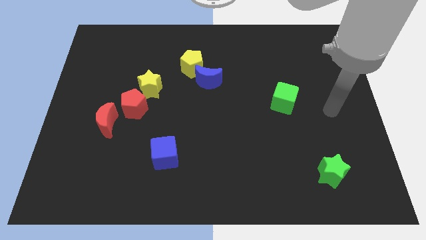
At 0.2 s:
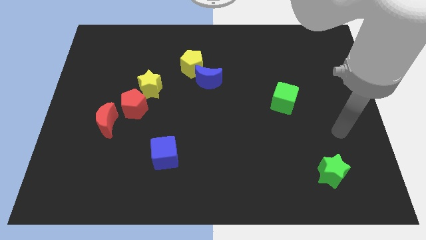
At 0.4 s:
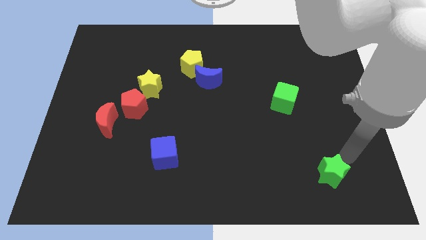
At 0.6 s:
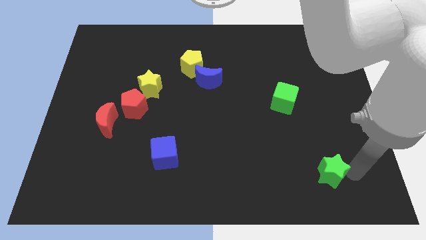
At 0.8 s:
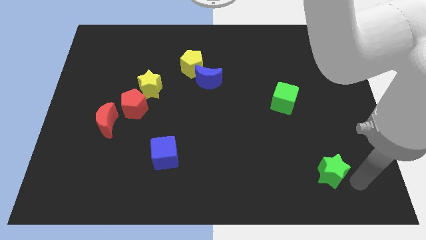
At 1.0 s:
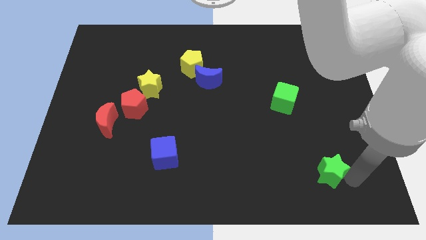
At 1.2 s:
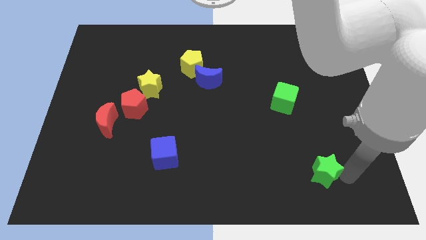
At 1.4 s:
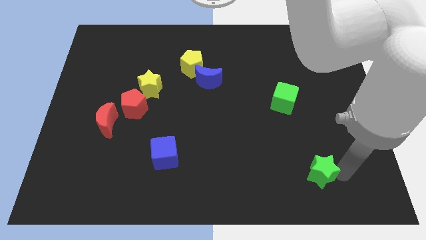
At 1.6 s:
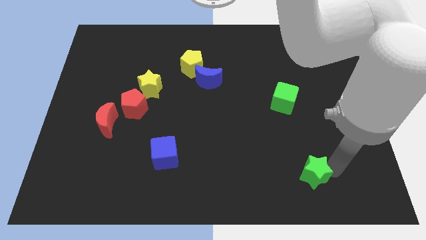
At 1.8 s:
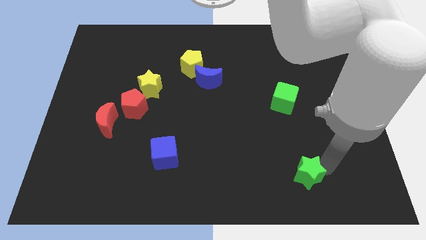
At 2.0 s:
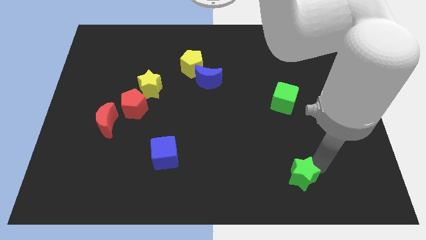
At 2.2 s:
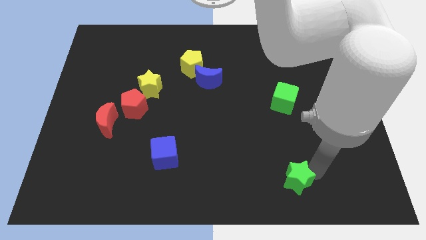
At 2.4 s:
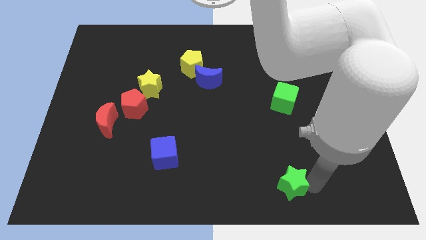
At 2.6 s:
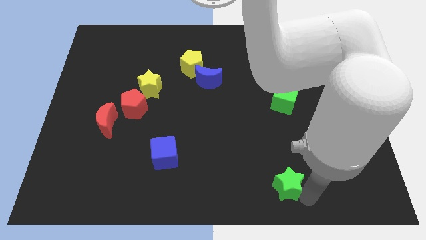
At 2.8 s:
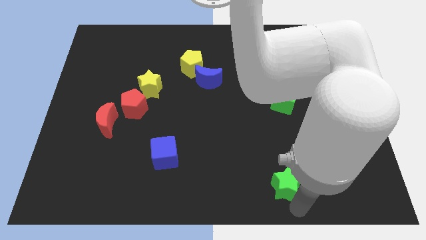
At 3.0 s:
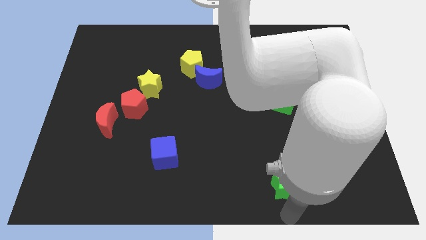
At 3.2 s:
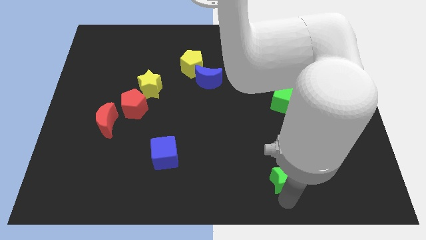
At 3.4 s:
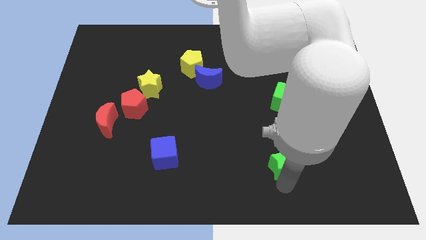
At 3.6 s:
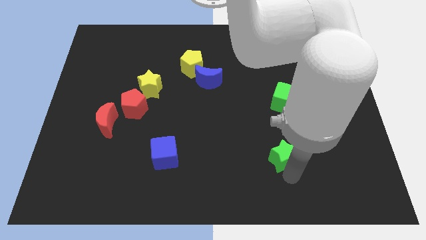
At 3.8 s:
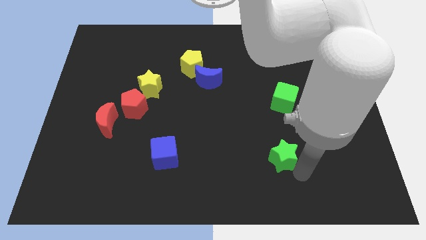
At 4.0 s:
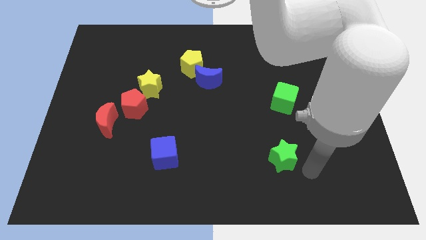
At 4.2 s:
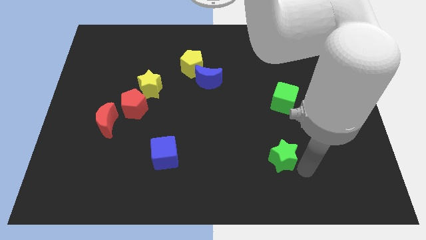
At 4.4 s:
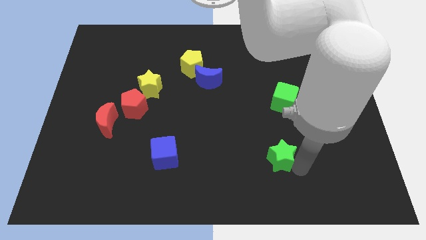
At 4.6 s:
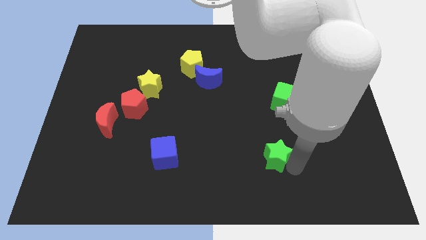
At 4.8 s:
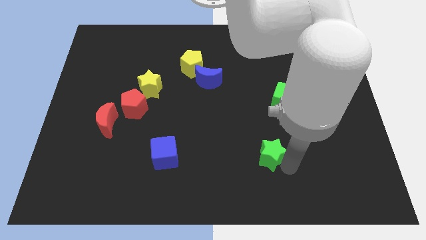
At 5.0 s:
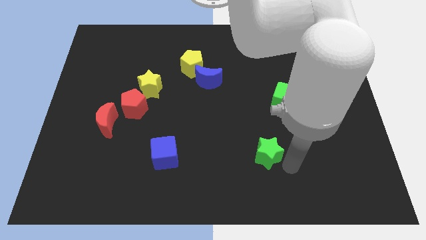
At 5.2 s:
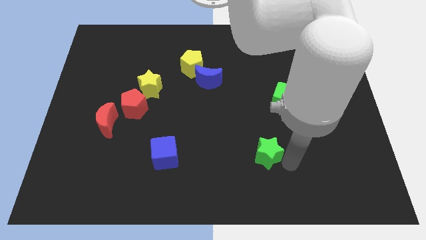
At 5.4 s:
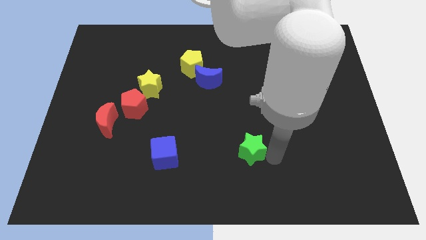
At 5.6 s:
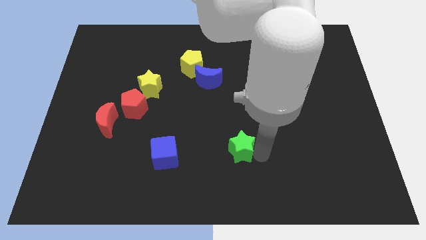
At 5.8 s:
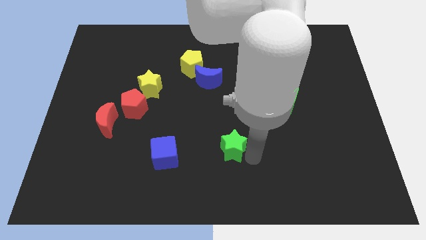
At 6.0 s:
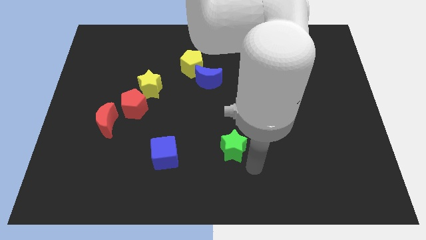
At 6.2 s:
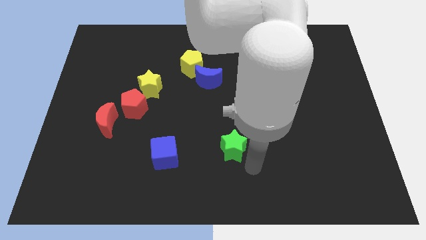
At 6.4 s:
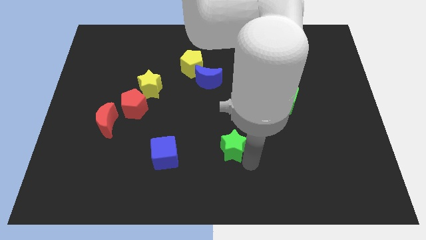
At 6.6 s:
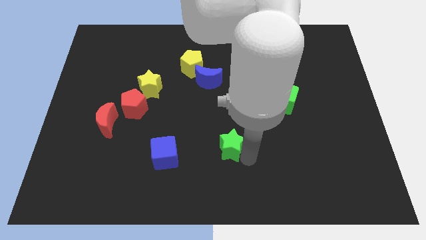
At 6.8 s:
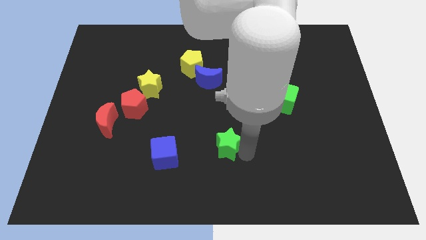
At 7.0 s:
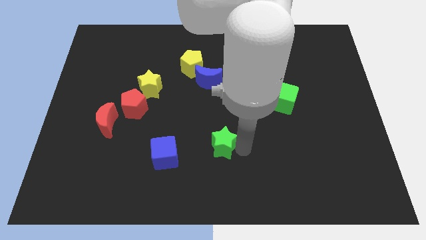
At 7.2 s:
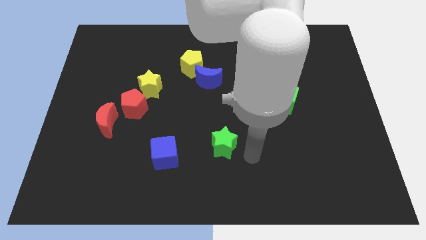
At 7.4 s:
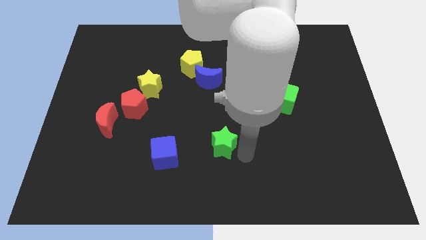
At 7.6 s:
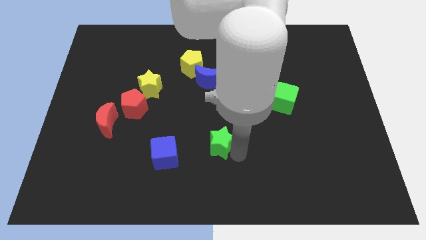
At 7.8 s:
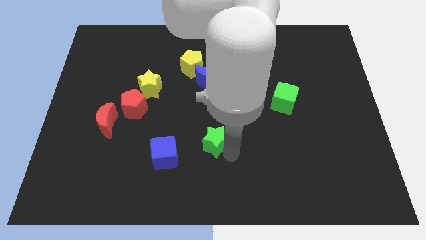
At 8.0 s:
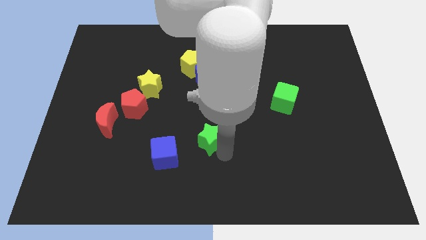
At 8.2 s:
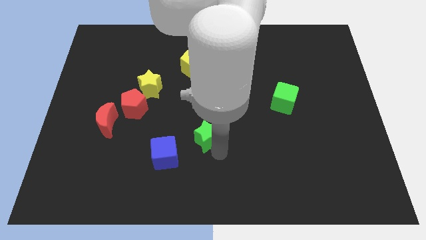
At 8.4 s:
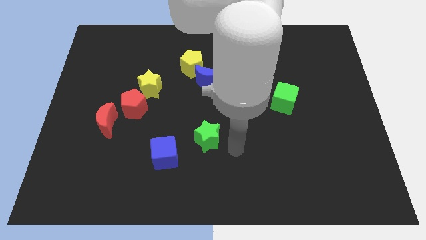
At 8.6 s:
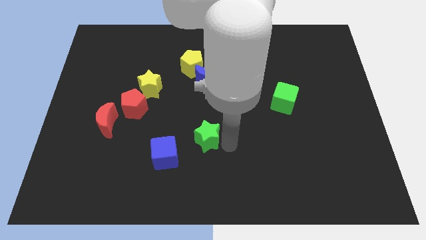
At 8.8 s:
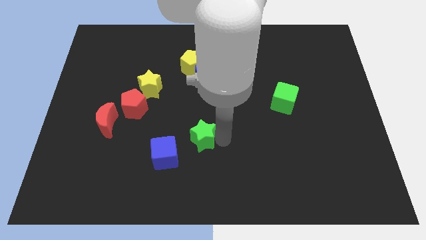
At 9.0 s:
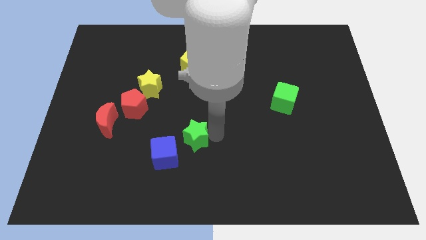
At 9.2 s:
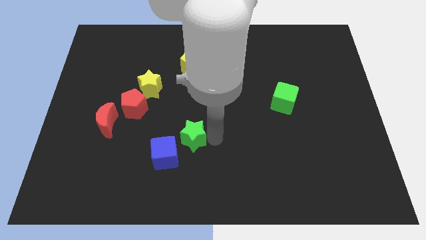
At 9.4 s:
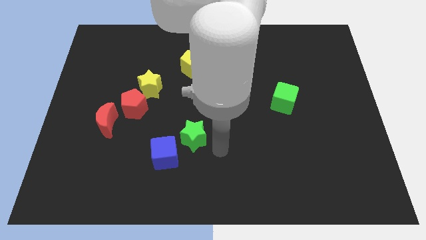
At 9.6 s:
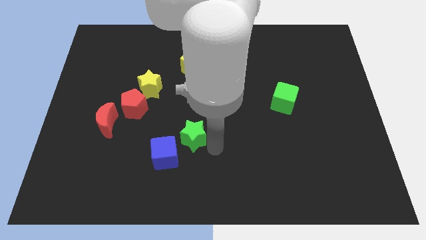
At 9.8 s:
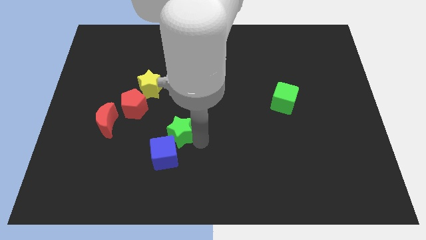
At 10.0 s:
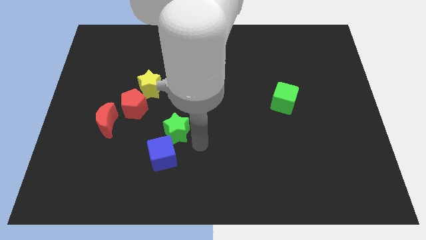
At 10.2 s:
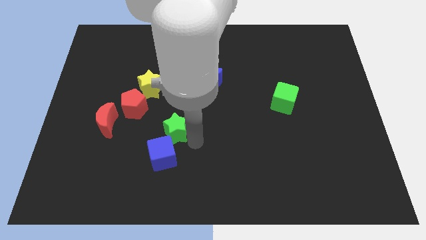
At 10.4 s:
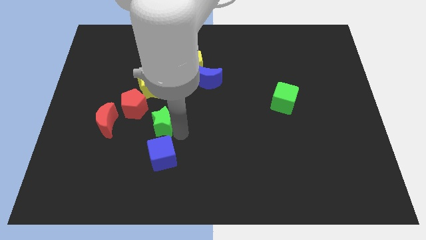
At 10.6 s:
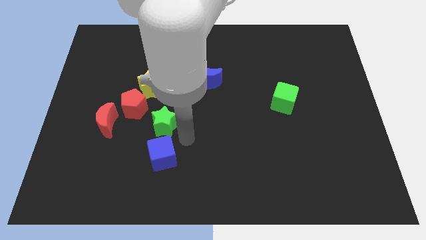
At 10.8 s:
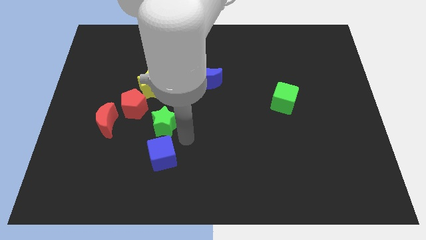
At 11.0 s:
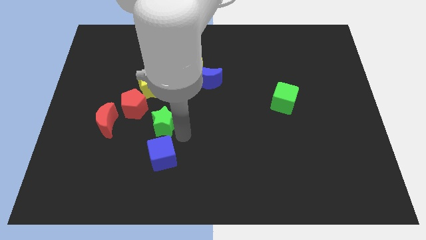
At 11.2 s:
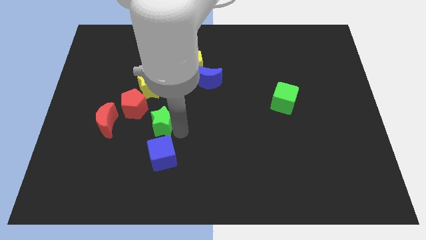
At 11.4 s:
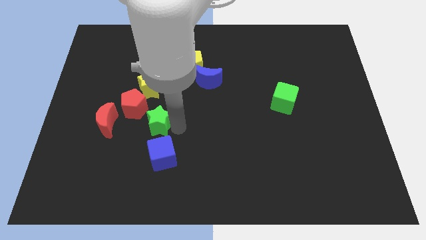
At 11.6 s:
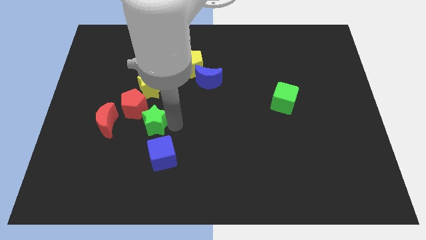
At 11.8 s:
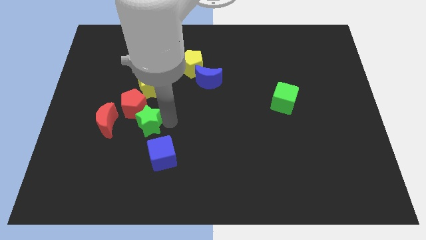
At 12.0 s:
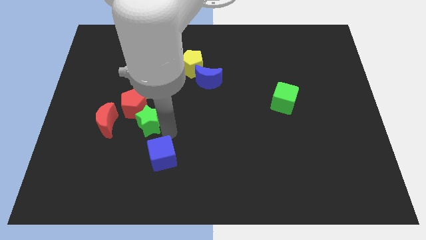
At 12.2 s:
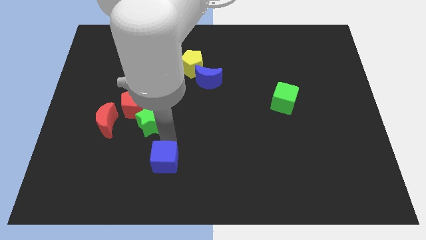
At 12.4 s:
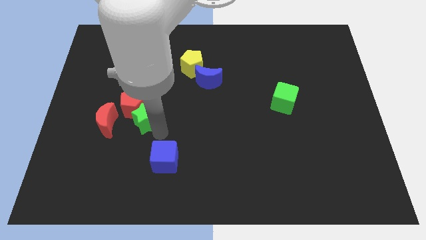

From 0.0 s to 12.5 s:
move the green star next to the red pentagon
